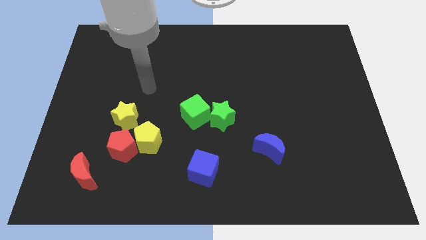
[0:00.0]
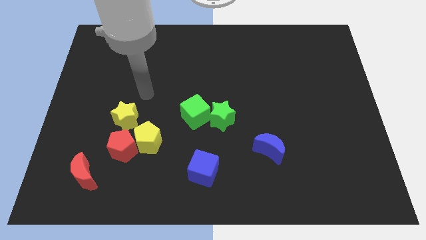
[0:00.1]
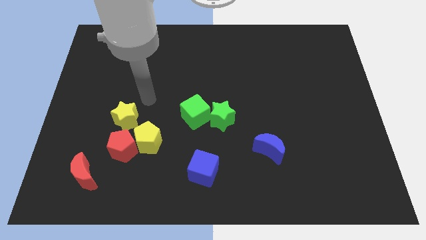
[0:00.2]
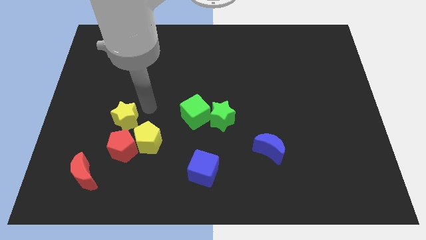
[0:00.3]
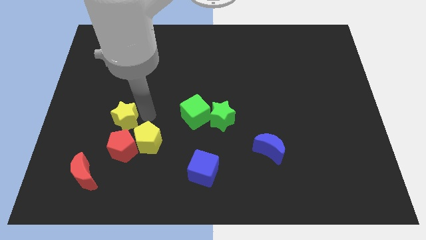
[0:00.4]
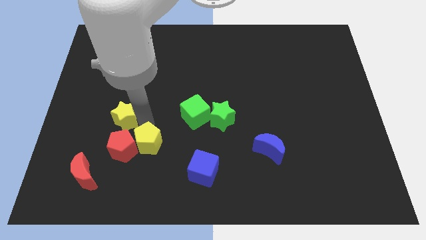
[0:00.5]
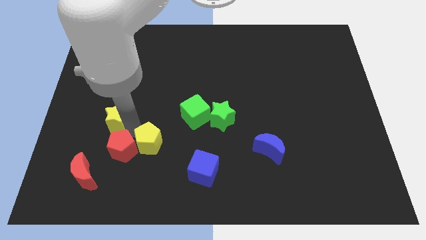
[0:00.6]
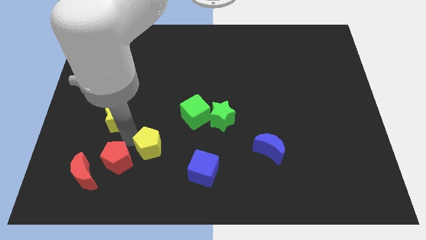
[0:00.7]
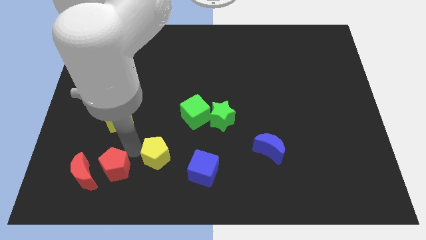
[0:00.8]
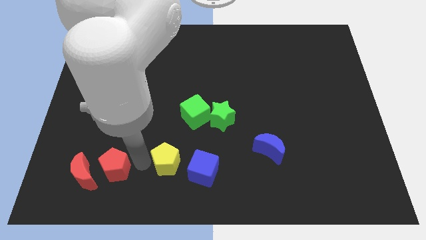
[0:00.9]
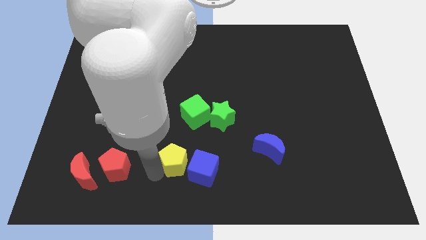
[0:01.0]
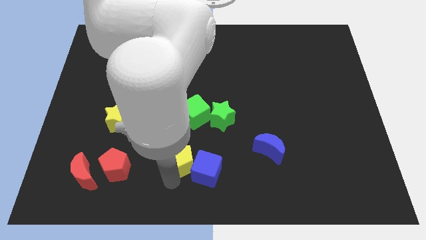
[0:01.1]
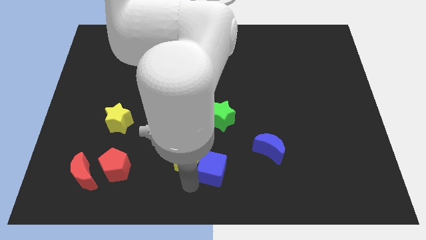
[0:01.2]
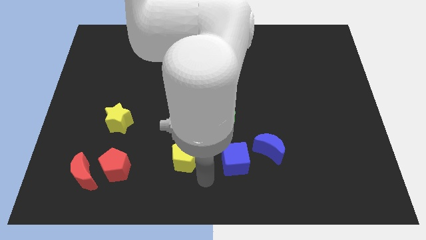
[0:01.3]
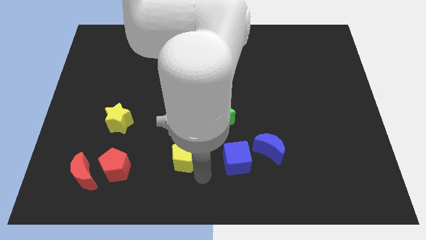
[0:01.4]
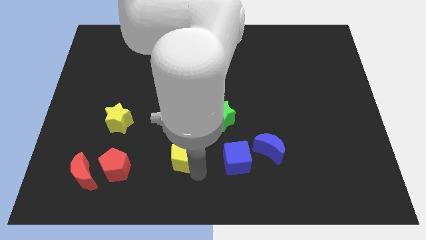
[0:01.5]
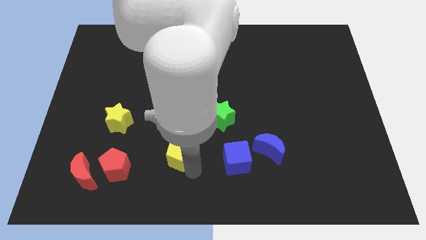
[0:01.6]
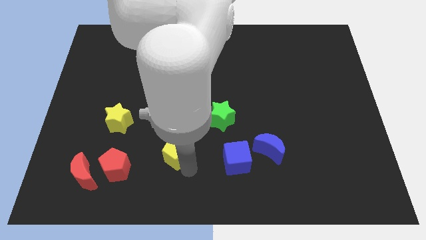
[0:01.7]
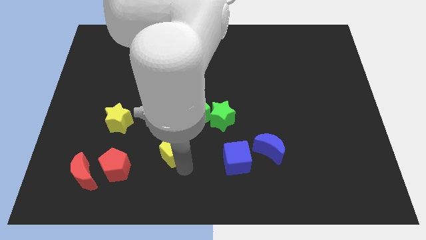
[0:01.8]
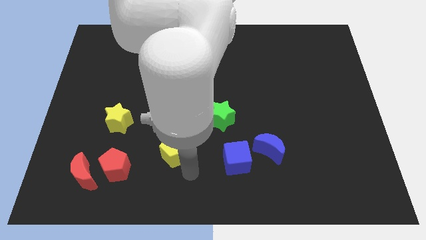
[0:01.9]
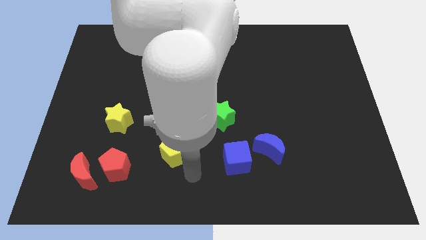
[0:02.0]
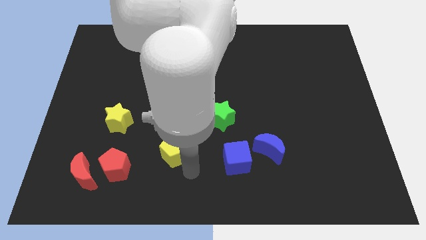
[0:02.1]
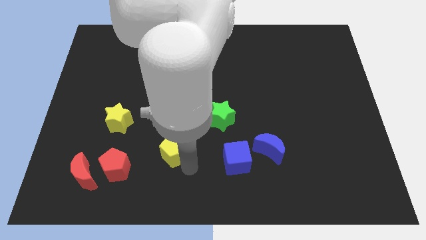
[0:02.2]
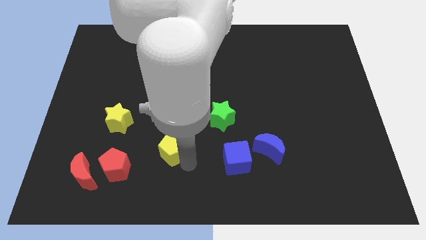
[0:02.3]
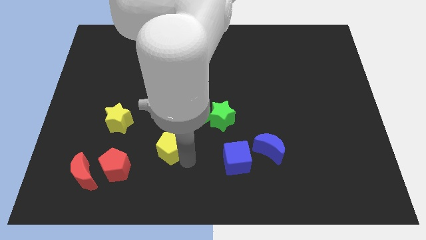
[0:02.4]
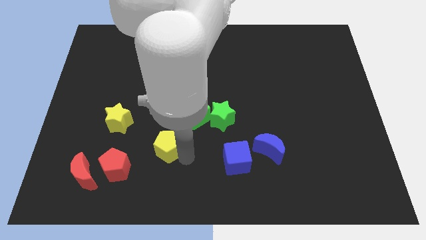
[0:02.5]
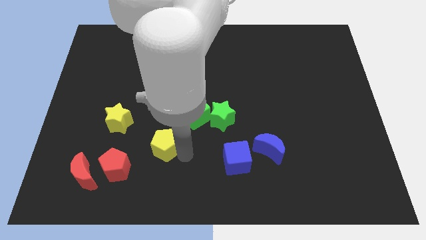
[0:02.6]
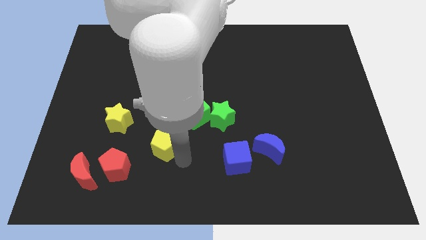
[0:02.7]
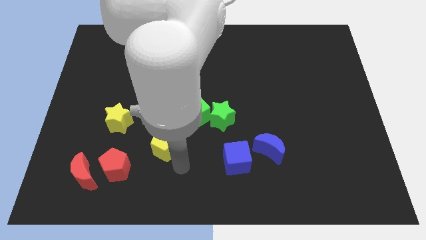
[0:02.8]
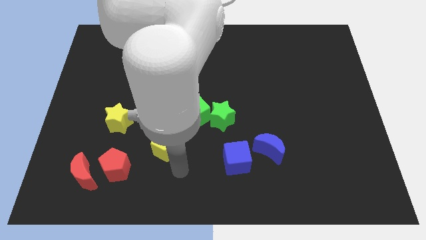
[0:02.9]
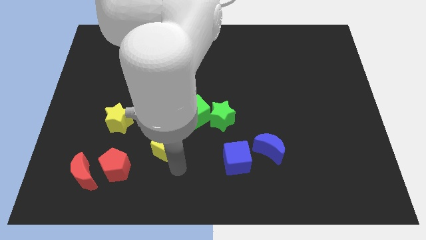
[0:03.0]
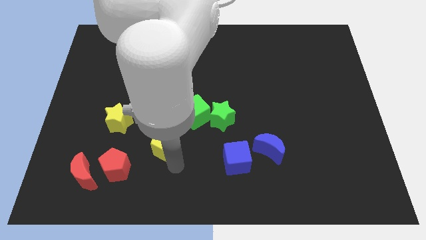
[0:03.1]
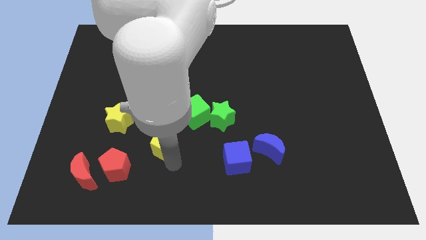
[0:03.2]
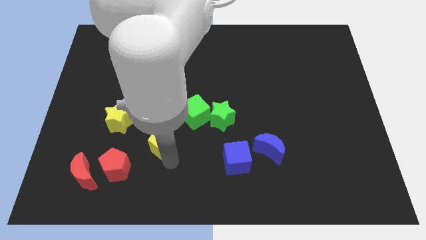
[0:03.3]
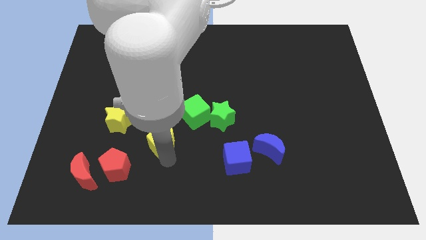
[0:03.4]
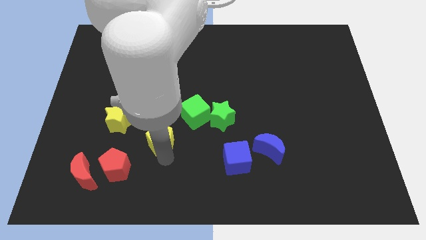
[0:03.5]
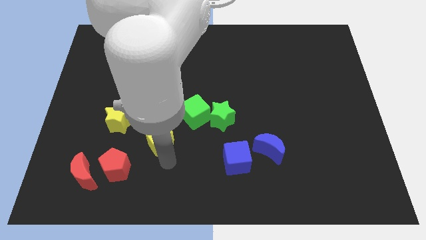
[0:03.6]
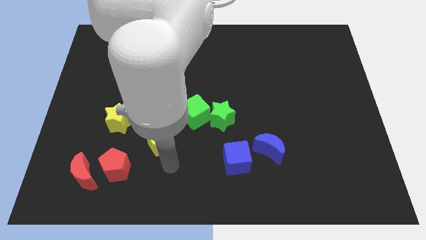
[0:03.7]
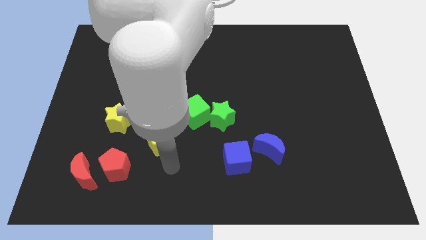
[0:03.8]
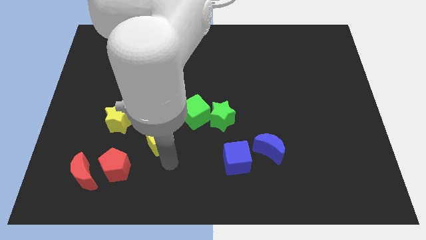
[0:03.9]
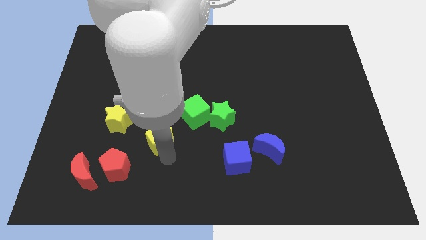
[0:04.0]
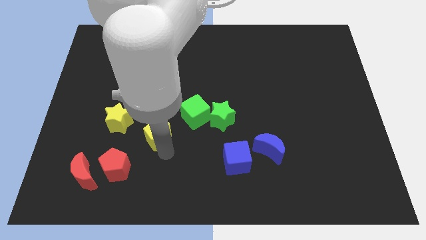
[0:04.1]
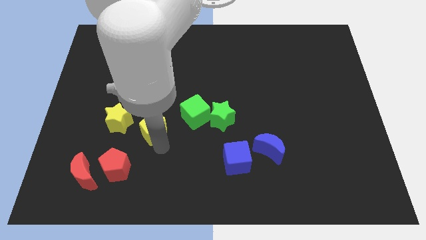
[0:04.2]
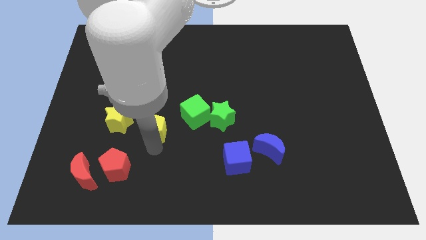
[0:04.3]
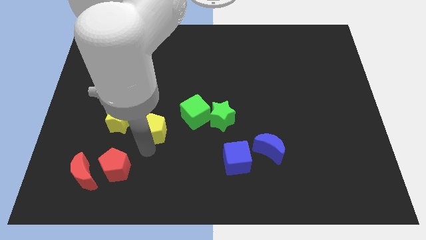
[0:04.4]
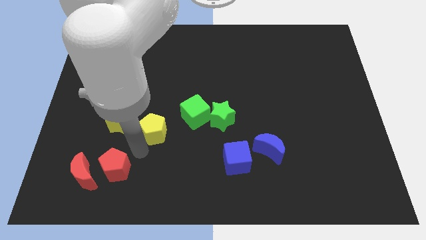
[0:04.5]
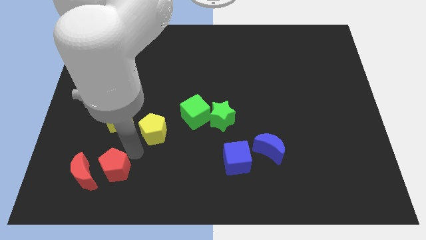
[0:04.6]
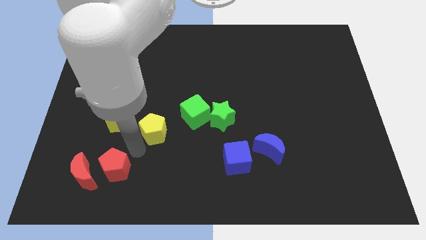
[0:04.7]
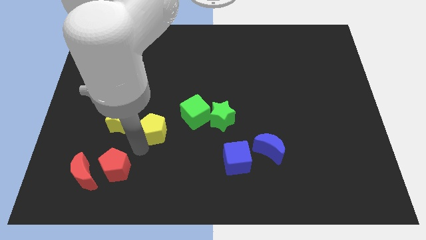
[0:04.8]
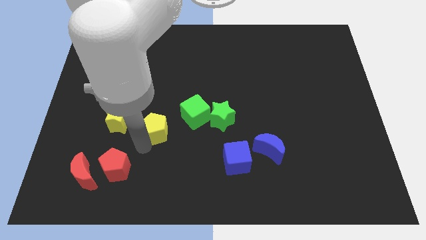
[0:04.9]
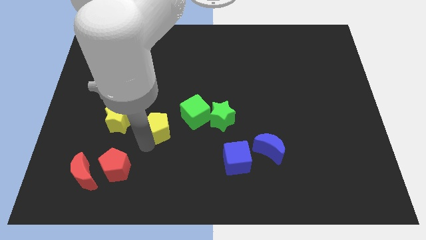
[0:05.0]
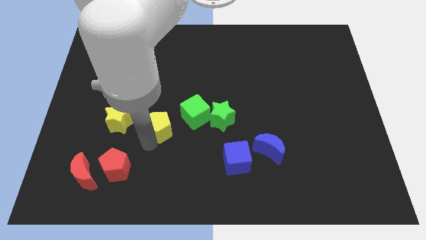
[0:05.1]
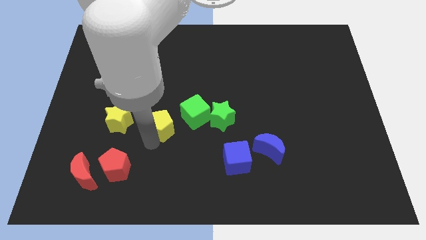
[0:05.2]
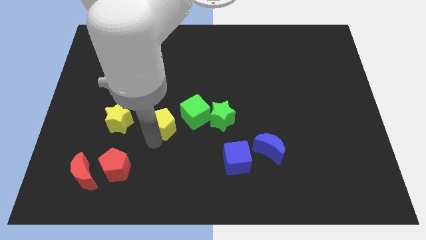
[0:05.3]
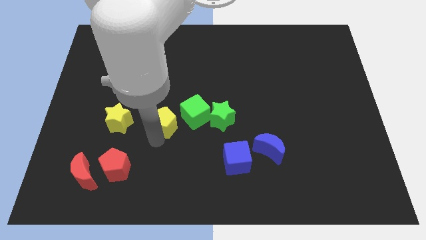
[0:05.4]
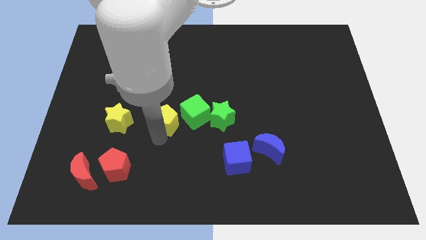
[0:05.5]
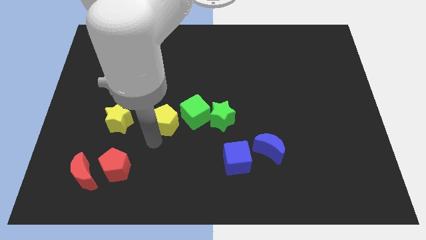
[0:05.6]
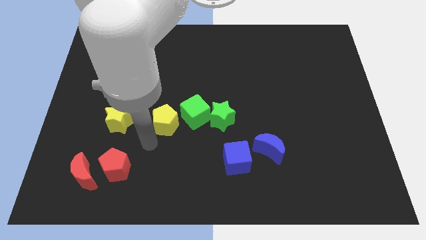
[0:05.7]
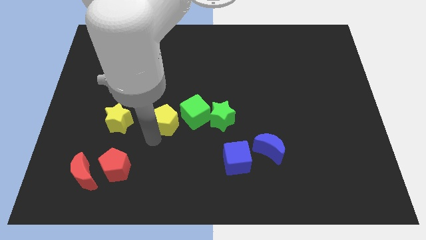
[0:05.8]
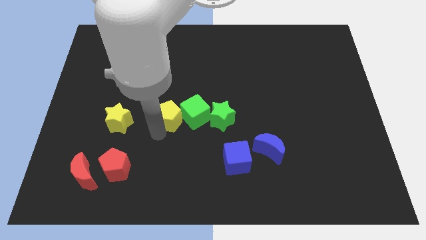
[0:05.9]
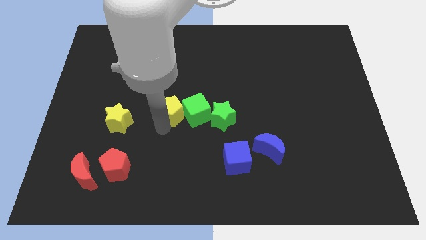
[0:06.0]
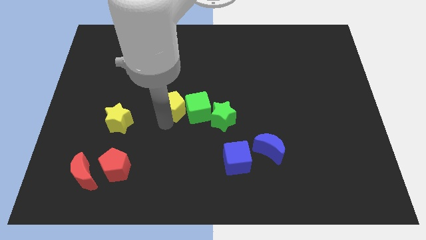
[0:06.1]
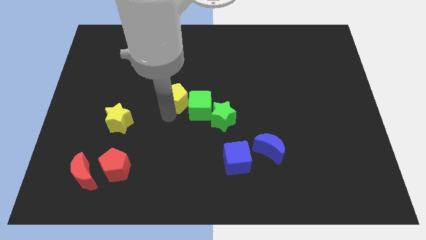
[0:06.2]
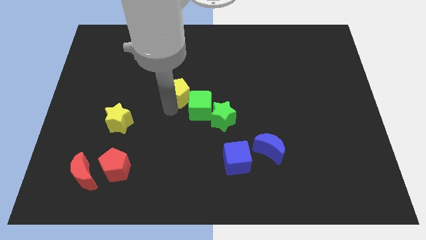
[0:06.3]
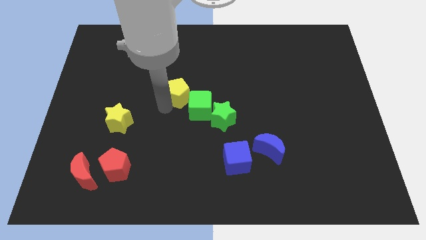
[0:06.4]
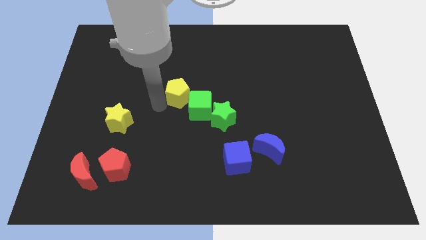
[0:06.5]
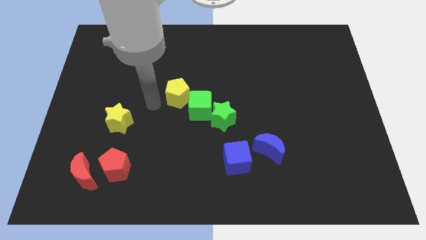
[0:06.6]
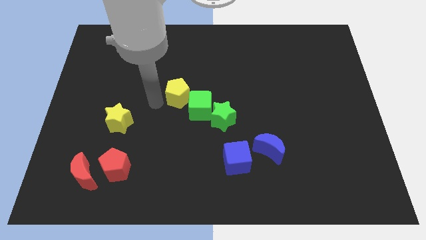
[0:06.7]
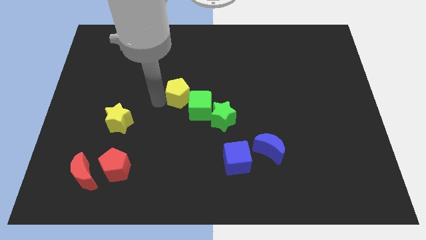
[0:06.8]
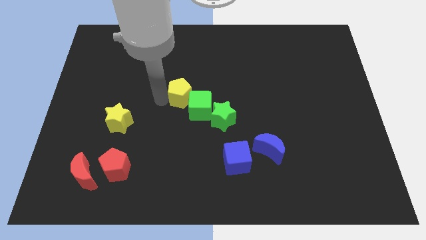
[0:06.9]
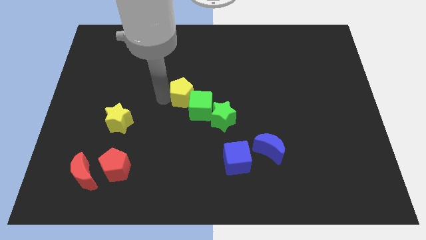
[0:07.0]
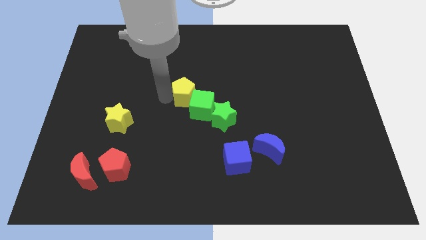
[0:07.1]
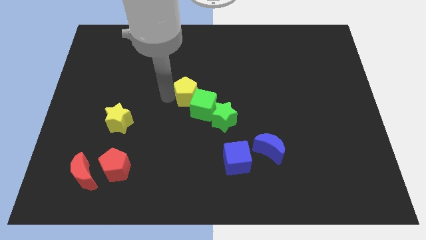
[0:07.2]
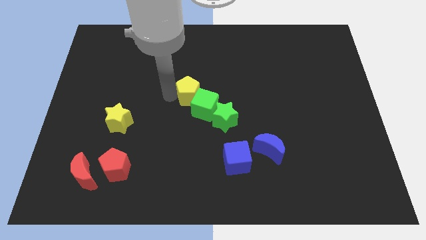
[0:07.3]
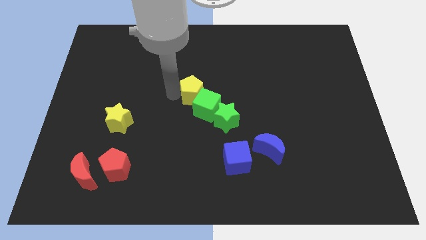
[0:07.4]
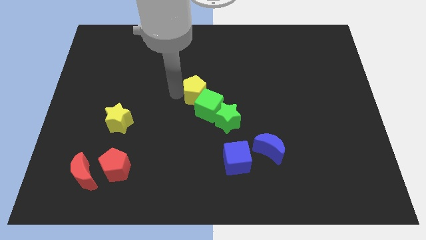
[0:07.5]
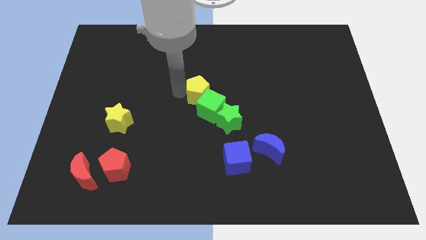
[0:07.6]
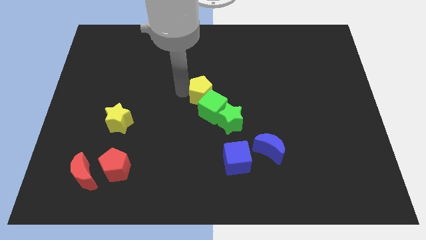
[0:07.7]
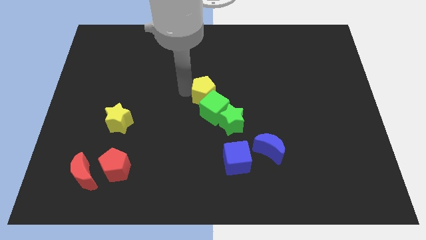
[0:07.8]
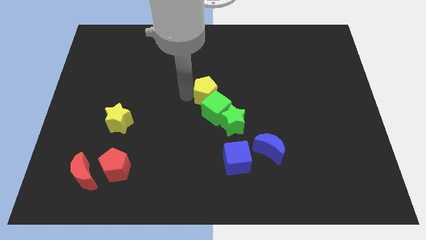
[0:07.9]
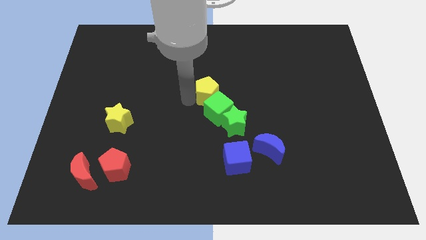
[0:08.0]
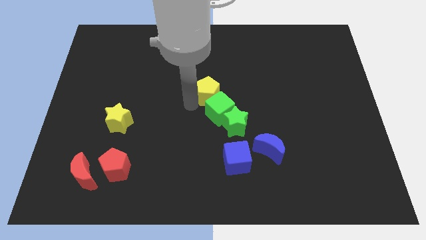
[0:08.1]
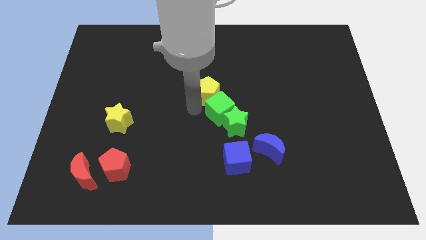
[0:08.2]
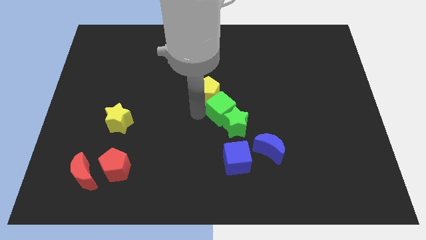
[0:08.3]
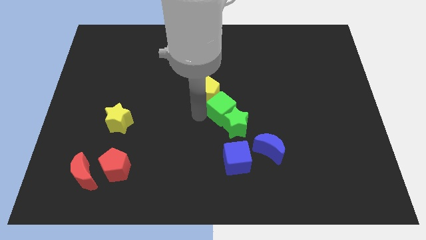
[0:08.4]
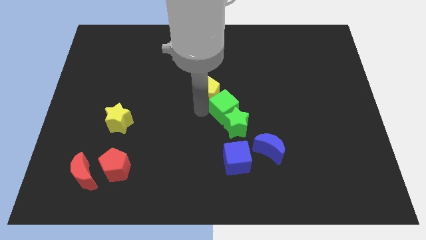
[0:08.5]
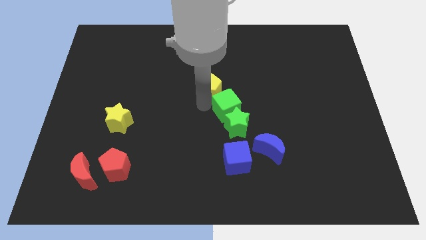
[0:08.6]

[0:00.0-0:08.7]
push the yellow pentagon up and to the right
